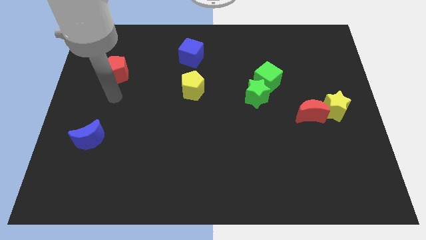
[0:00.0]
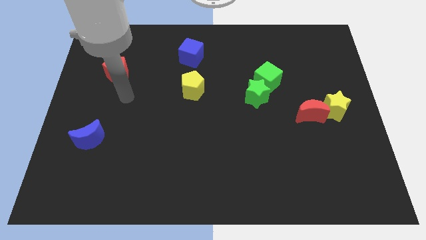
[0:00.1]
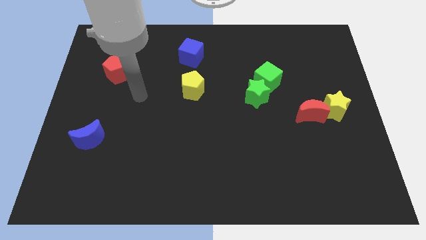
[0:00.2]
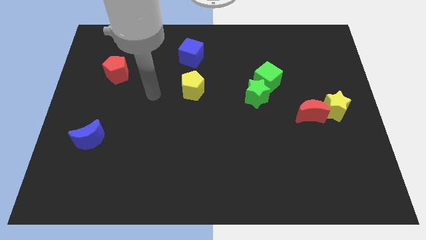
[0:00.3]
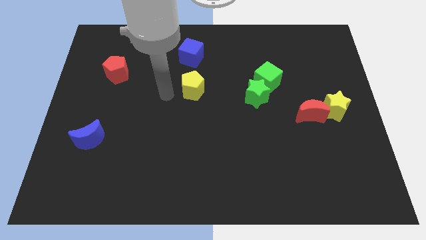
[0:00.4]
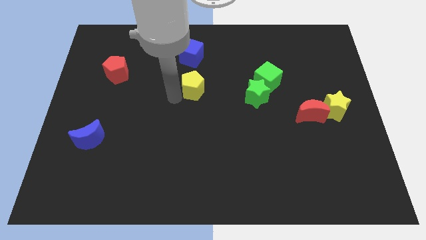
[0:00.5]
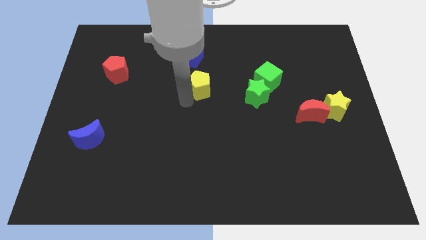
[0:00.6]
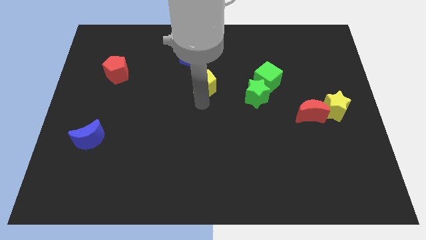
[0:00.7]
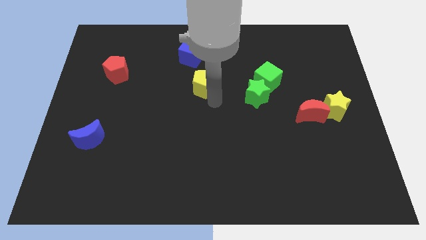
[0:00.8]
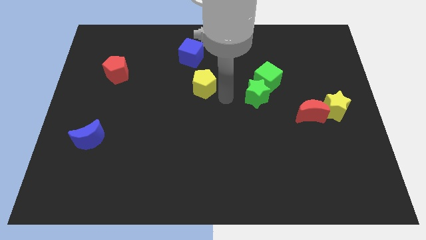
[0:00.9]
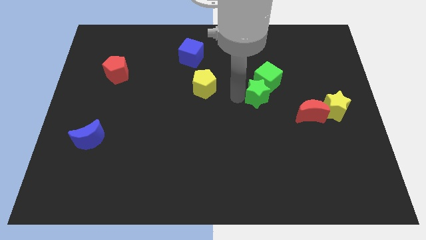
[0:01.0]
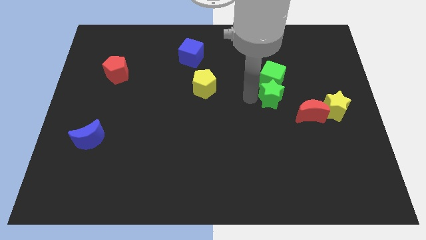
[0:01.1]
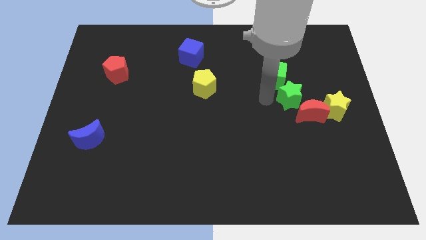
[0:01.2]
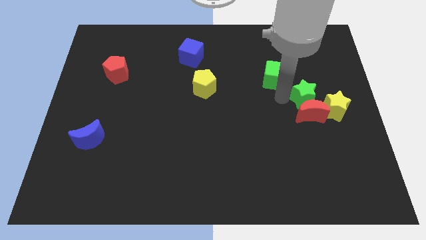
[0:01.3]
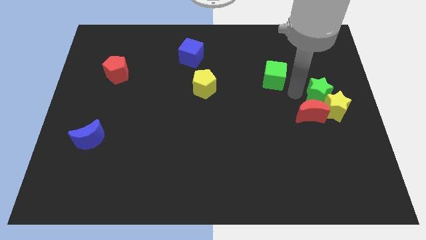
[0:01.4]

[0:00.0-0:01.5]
move the green cube away from the green star

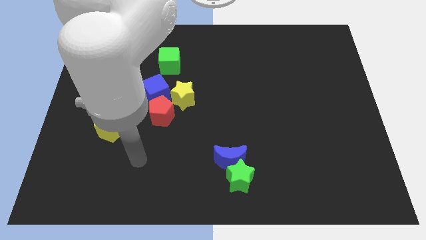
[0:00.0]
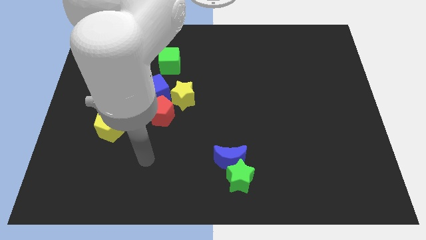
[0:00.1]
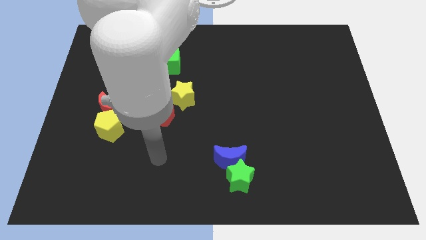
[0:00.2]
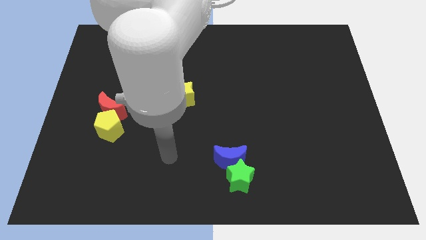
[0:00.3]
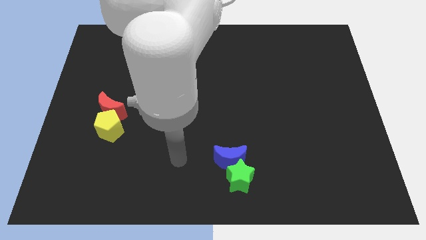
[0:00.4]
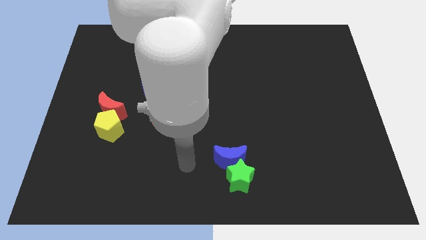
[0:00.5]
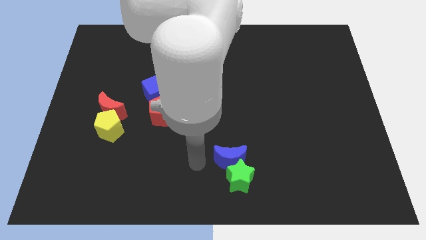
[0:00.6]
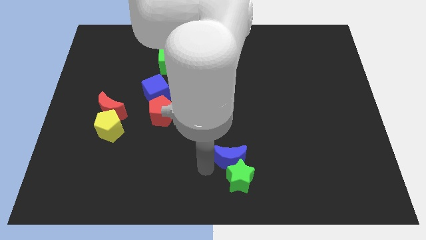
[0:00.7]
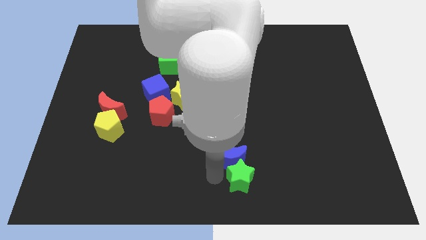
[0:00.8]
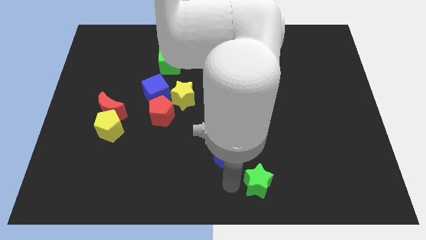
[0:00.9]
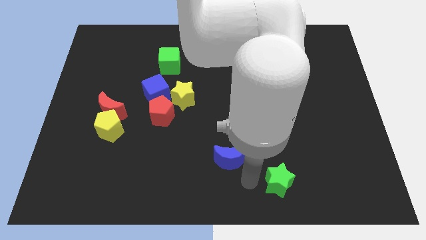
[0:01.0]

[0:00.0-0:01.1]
separate the blue moon from the green star

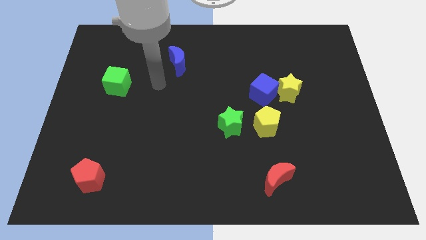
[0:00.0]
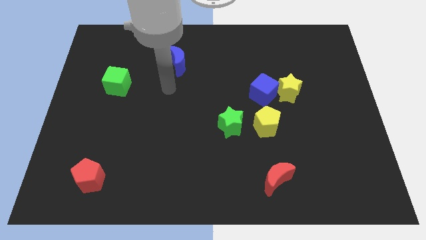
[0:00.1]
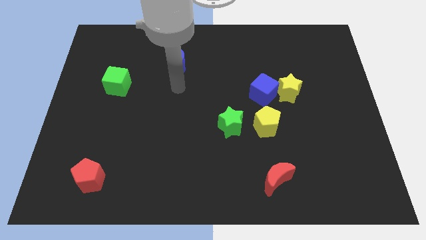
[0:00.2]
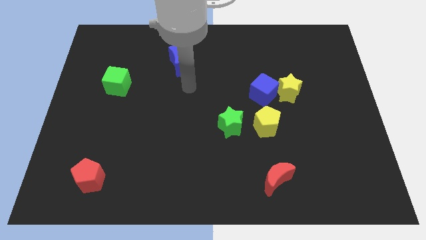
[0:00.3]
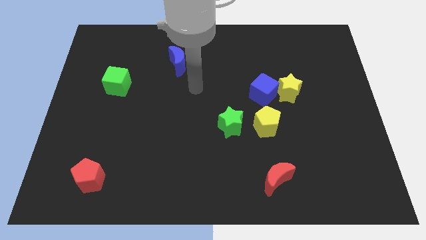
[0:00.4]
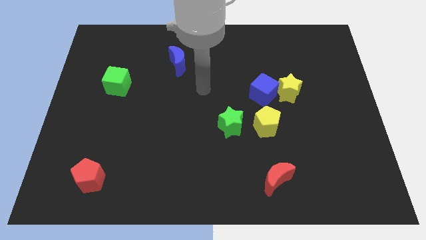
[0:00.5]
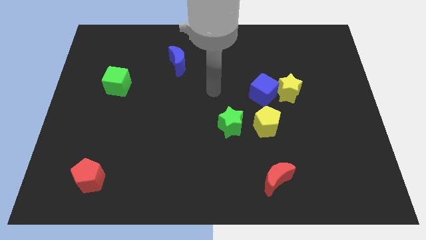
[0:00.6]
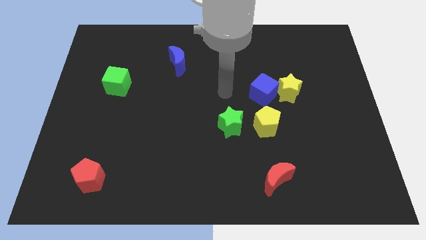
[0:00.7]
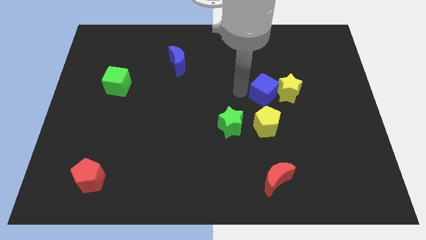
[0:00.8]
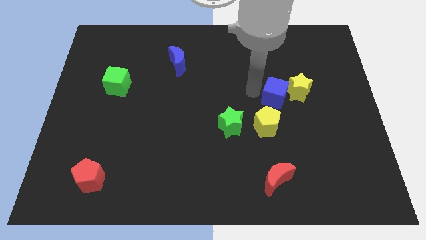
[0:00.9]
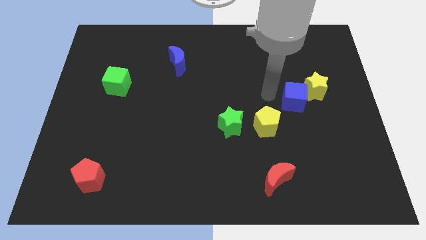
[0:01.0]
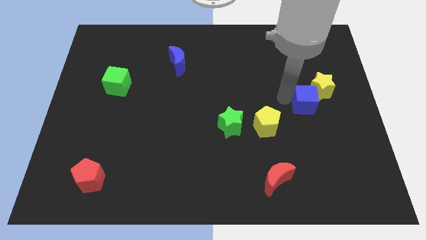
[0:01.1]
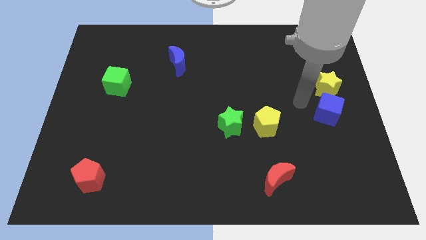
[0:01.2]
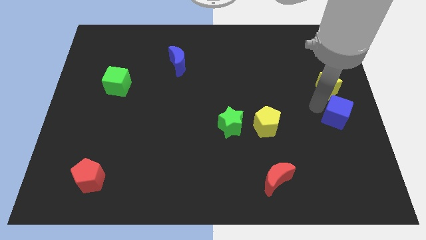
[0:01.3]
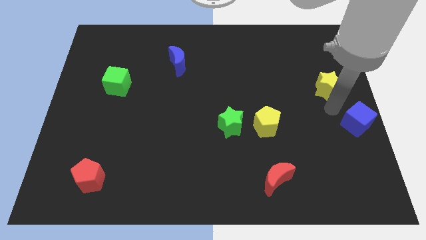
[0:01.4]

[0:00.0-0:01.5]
pull the yellow star apart from the blue cube

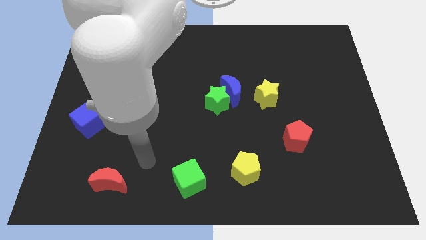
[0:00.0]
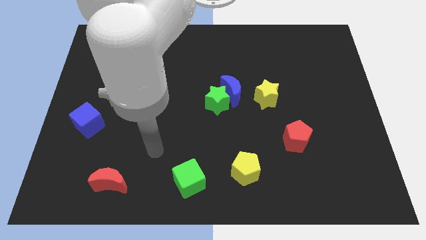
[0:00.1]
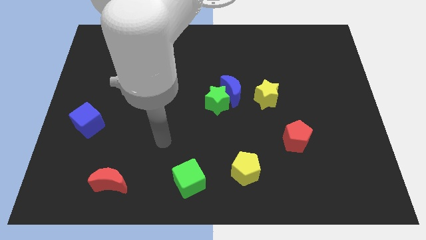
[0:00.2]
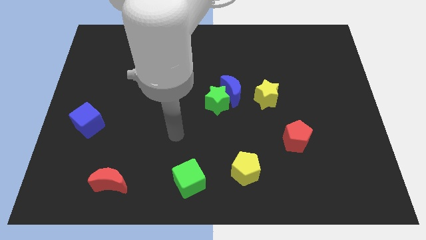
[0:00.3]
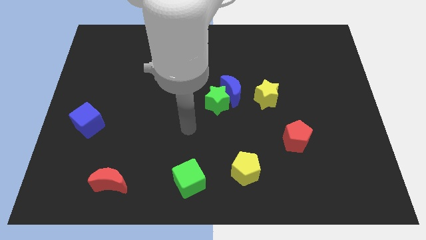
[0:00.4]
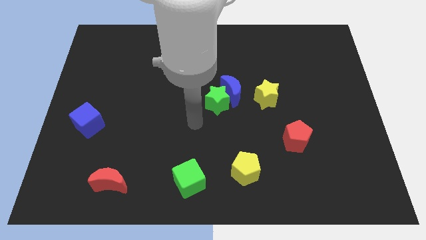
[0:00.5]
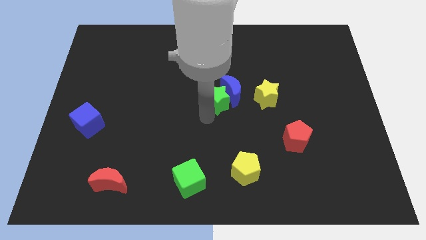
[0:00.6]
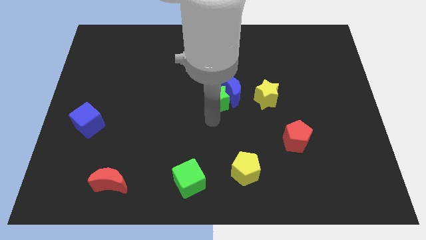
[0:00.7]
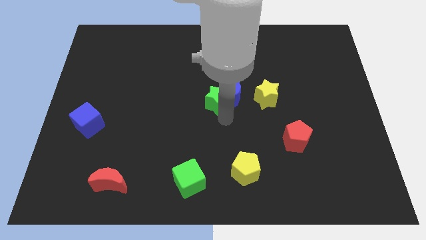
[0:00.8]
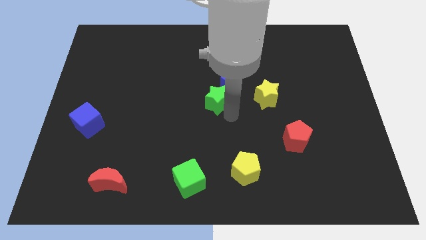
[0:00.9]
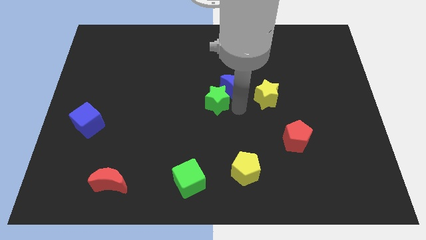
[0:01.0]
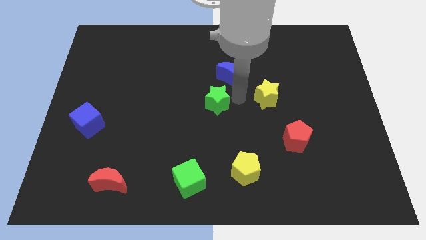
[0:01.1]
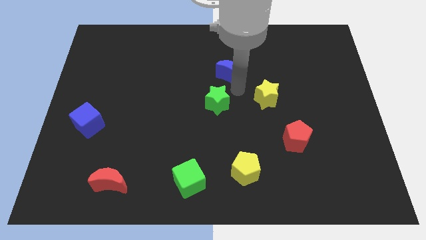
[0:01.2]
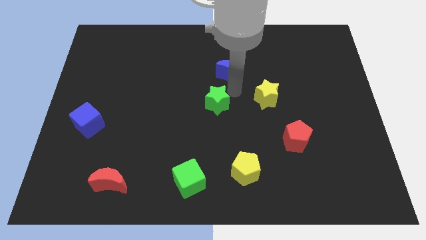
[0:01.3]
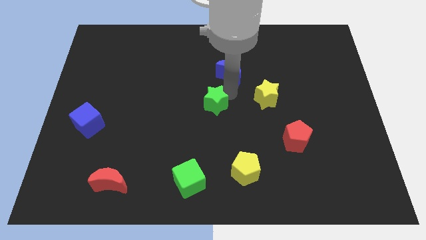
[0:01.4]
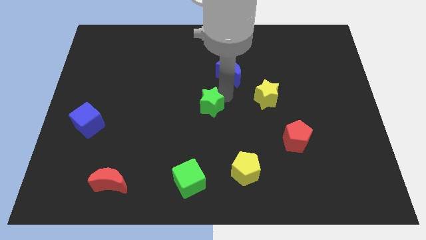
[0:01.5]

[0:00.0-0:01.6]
move the green star away from the blue moon

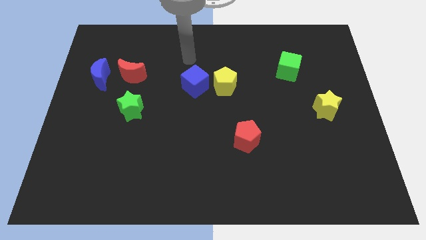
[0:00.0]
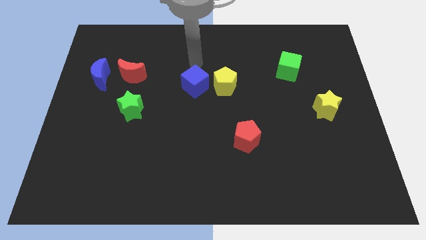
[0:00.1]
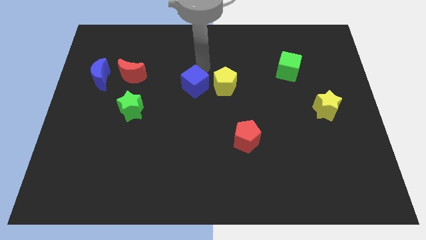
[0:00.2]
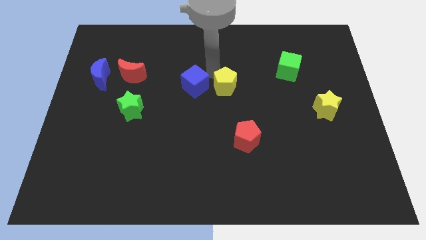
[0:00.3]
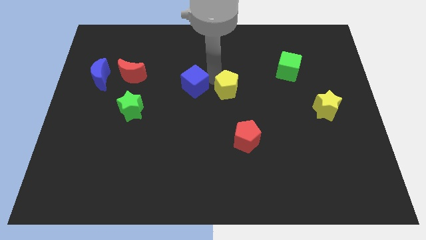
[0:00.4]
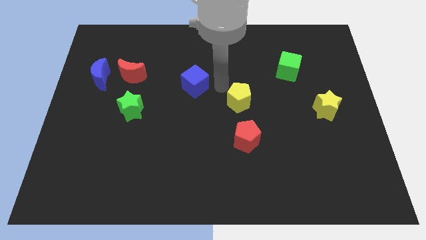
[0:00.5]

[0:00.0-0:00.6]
separate the blue cube from the yellow pentagon

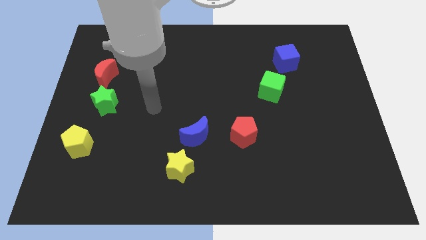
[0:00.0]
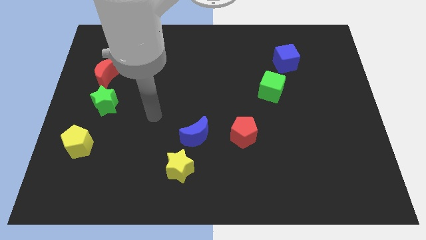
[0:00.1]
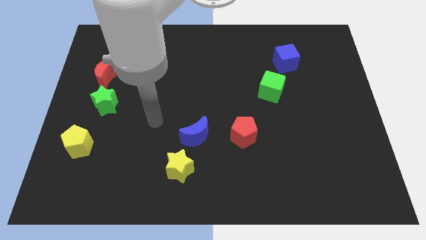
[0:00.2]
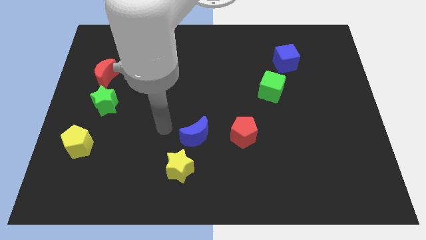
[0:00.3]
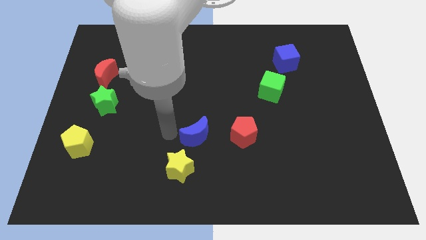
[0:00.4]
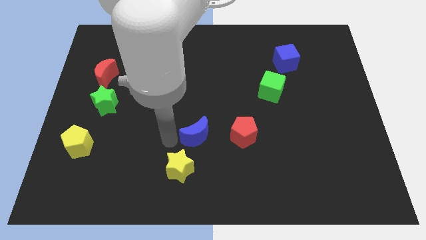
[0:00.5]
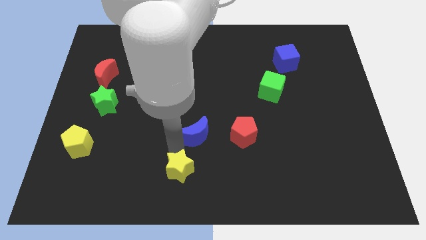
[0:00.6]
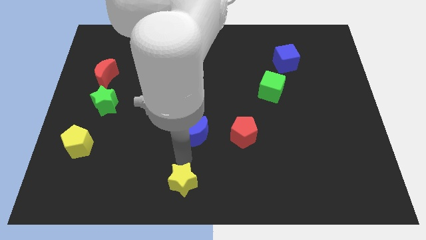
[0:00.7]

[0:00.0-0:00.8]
pull the blue moon apart from the yellow star

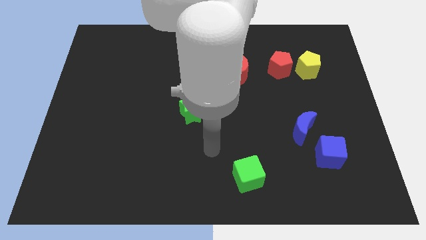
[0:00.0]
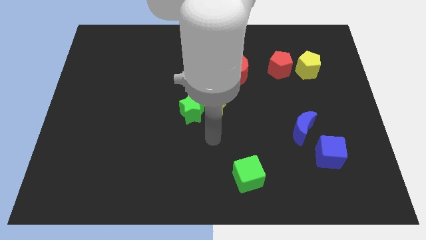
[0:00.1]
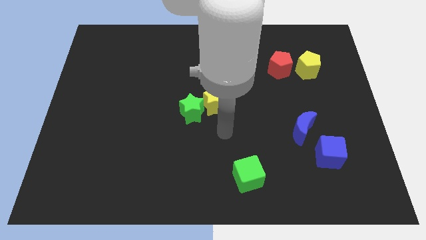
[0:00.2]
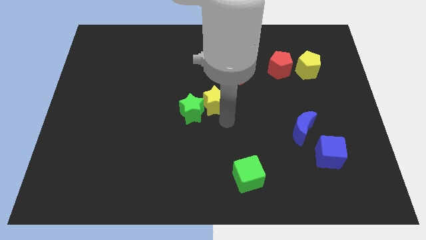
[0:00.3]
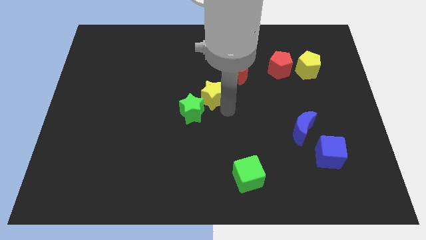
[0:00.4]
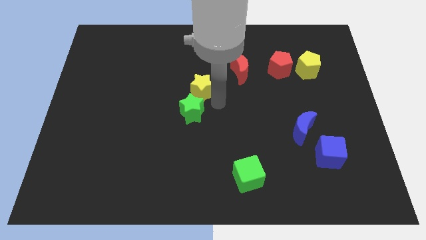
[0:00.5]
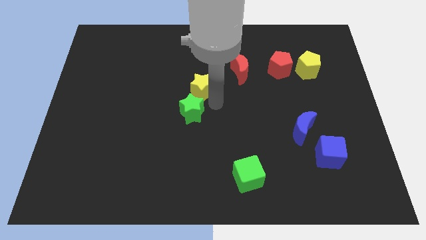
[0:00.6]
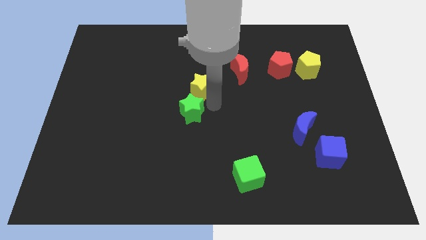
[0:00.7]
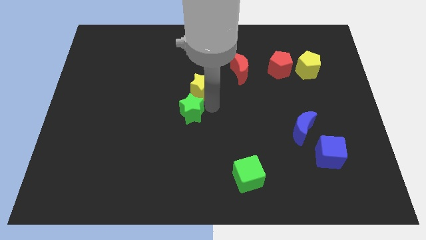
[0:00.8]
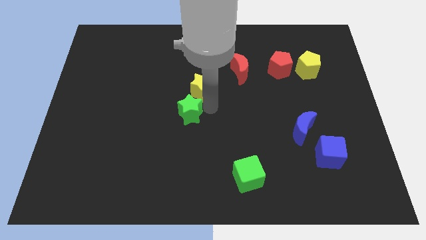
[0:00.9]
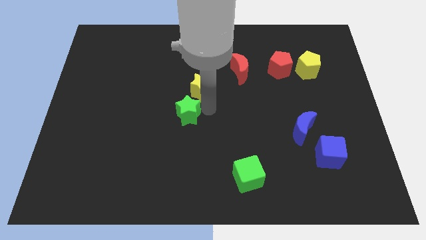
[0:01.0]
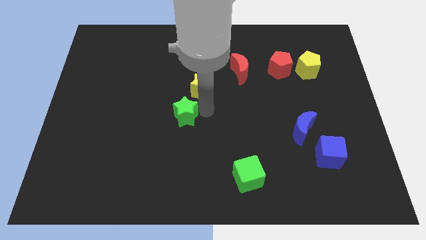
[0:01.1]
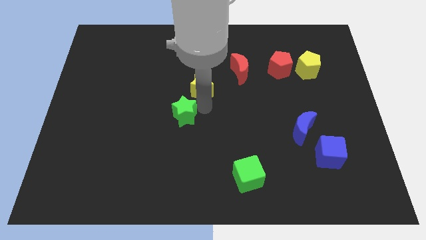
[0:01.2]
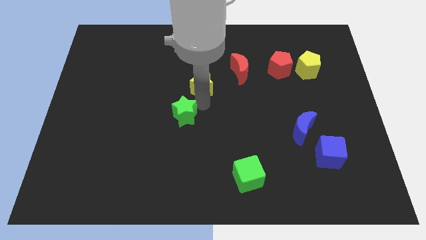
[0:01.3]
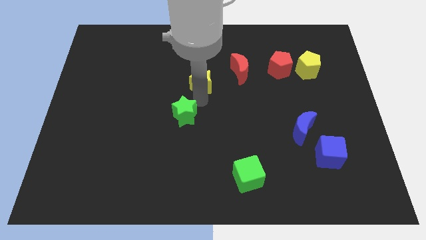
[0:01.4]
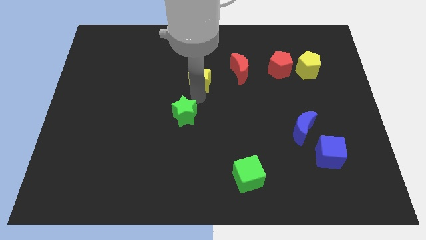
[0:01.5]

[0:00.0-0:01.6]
separate the green star from the yellow star

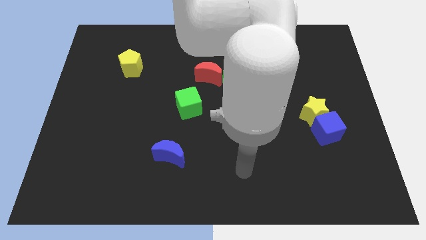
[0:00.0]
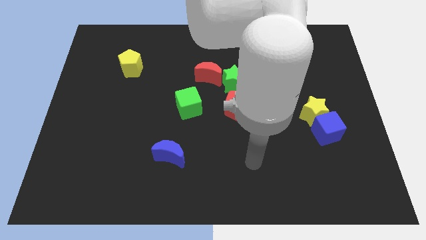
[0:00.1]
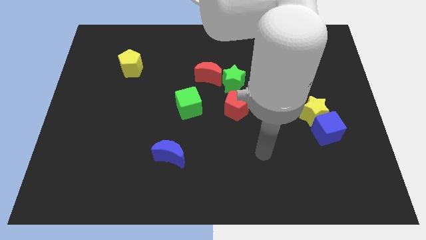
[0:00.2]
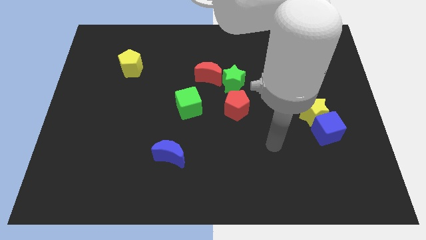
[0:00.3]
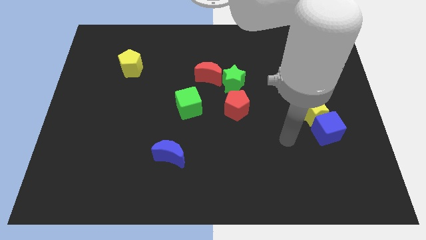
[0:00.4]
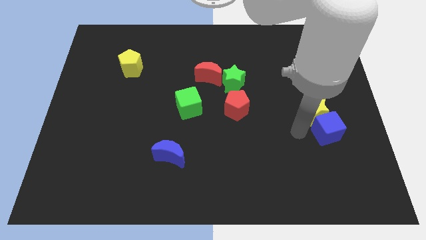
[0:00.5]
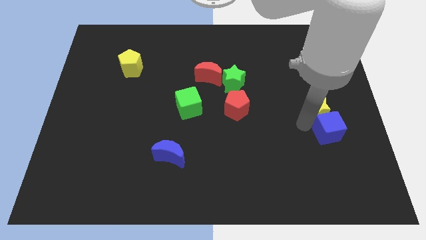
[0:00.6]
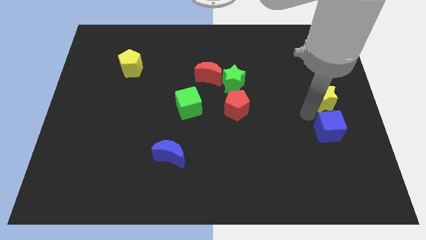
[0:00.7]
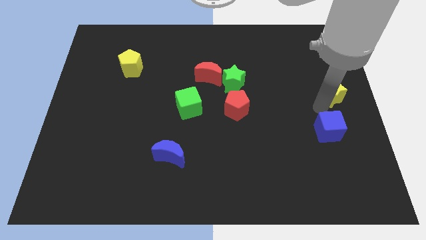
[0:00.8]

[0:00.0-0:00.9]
separate the blue cube from the yellow star
